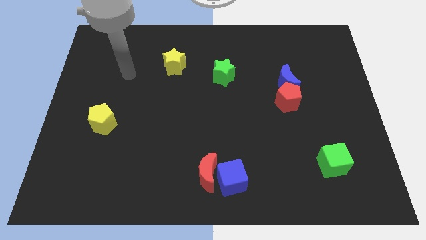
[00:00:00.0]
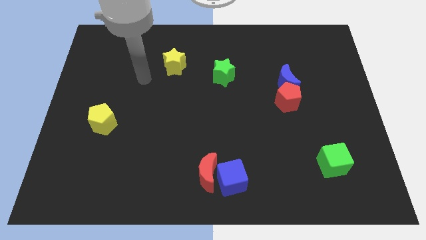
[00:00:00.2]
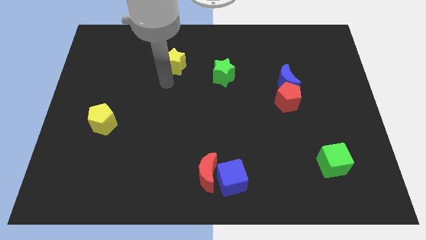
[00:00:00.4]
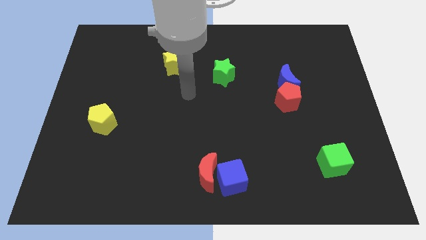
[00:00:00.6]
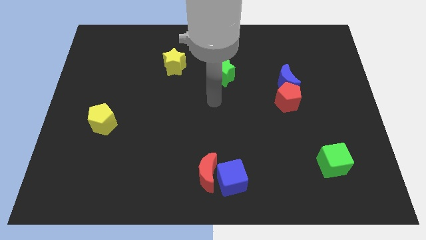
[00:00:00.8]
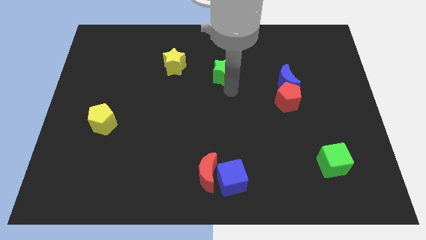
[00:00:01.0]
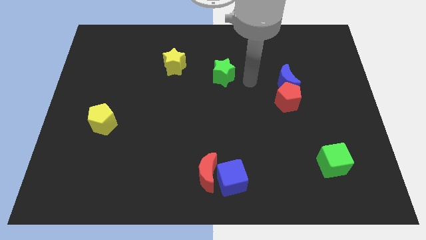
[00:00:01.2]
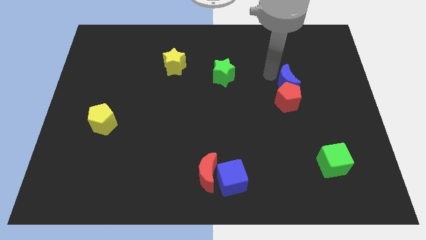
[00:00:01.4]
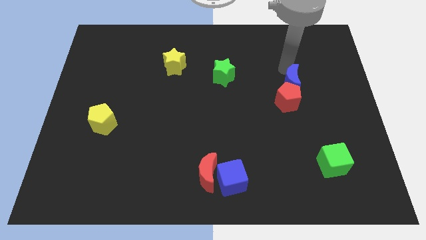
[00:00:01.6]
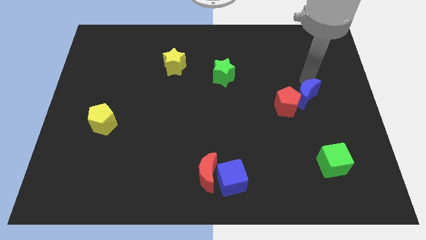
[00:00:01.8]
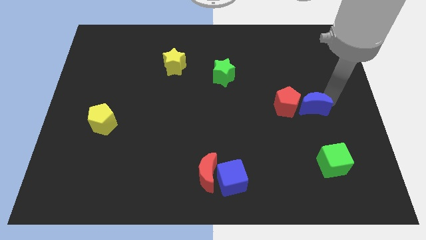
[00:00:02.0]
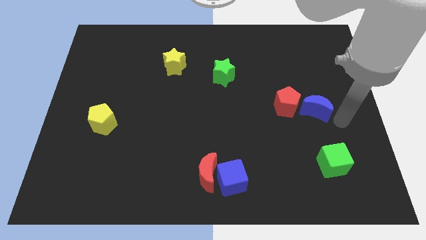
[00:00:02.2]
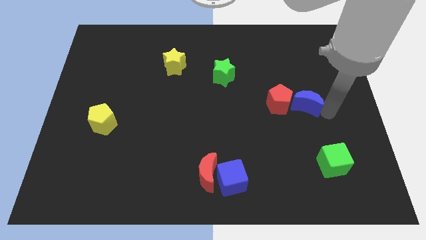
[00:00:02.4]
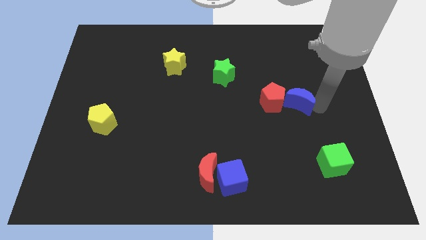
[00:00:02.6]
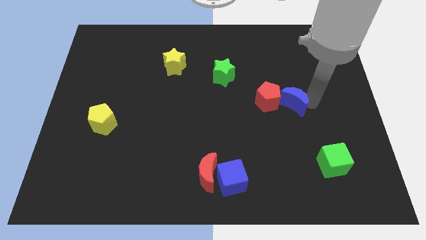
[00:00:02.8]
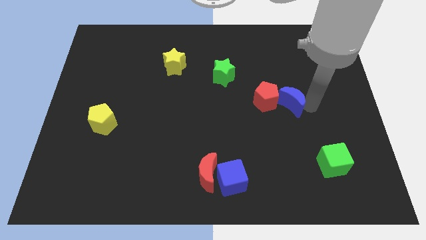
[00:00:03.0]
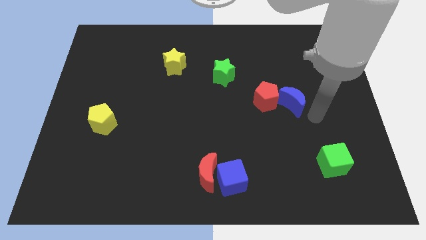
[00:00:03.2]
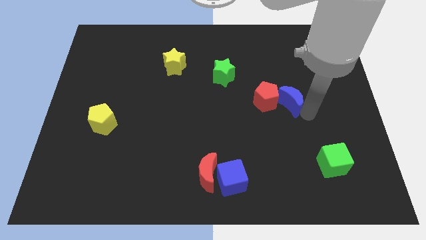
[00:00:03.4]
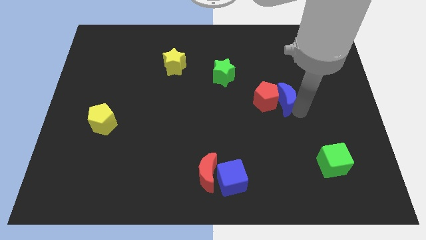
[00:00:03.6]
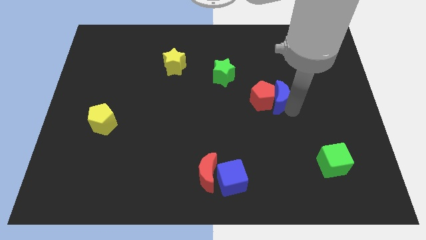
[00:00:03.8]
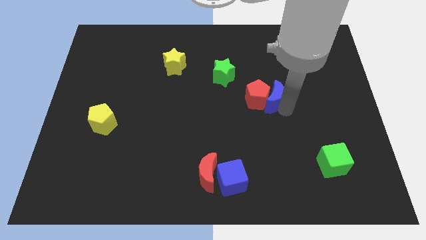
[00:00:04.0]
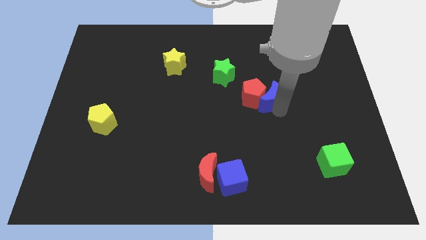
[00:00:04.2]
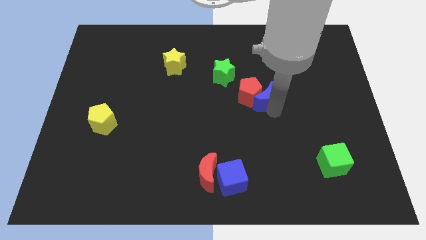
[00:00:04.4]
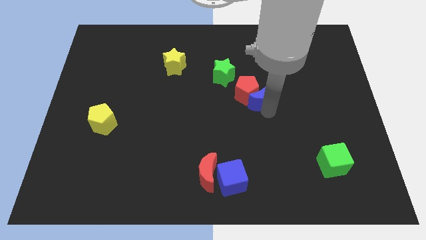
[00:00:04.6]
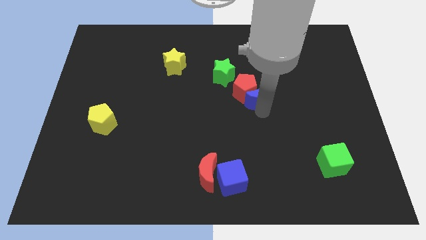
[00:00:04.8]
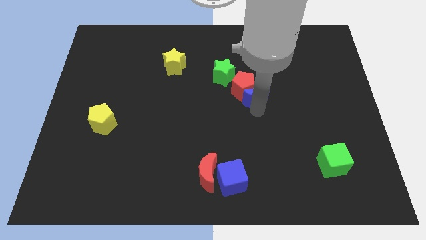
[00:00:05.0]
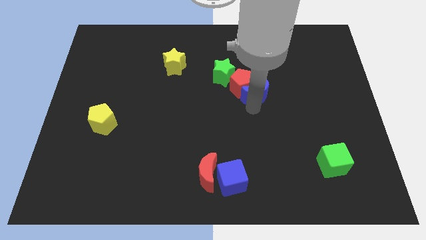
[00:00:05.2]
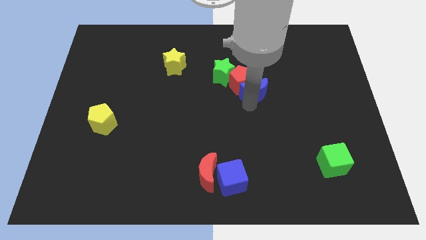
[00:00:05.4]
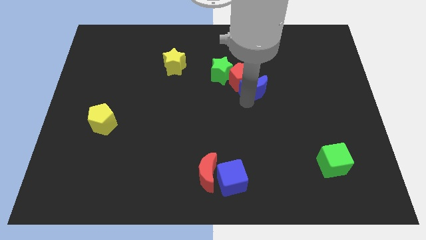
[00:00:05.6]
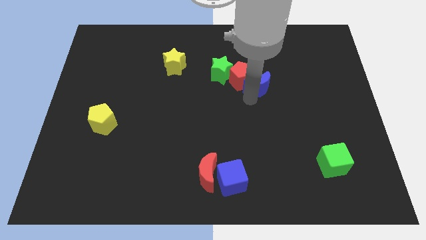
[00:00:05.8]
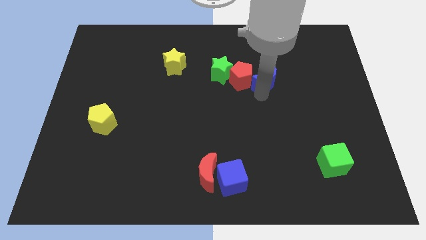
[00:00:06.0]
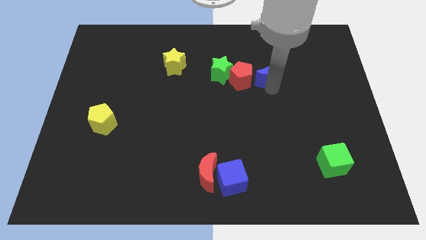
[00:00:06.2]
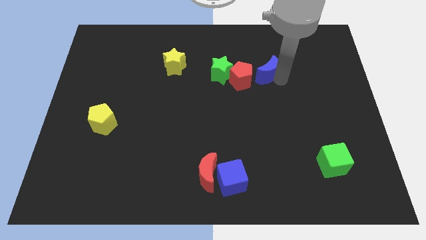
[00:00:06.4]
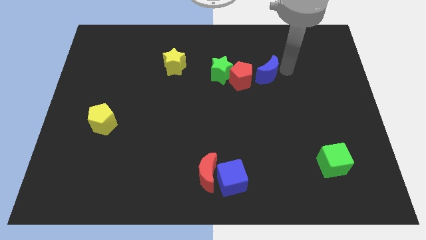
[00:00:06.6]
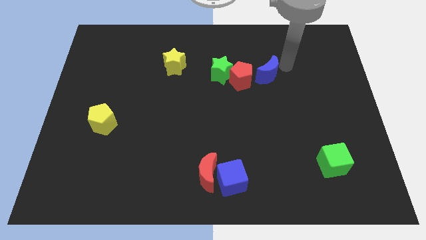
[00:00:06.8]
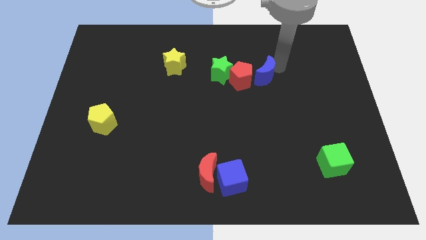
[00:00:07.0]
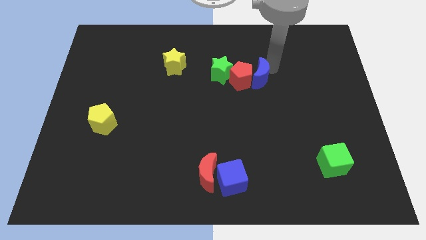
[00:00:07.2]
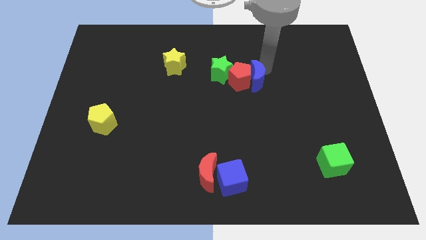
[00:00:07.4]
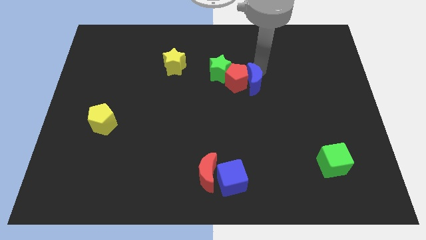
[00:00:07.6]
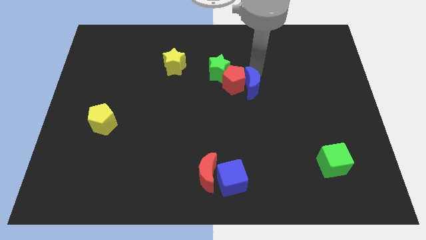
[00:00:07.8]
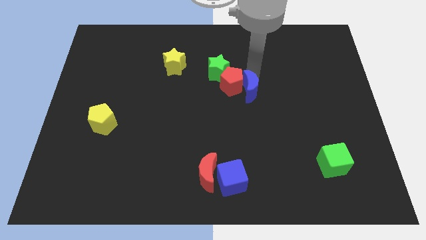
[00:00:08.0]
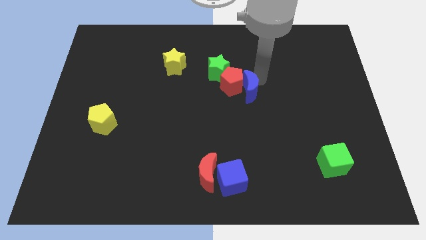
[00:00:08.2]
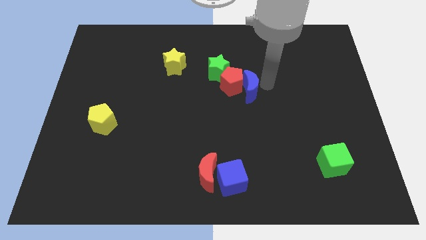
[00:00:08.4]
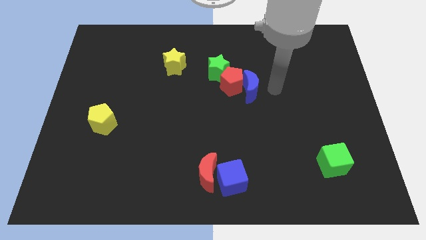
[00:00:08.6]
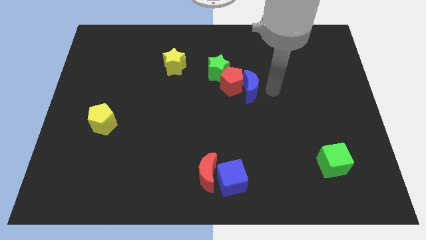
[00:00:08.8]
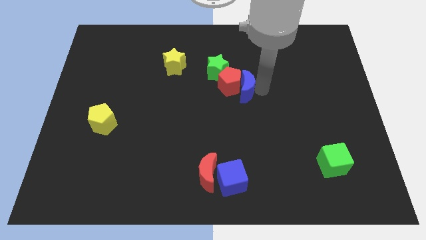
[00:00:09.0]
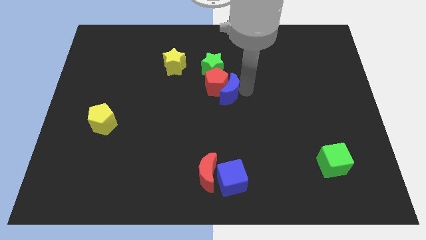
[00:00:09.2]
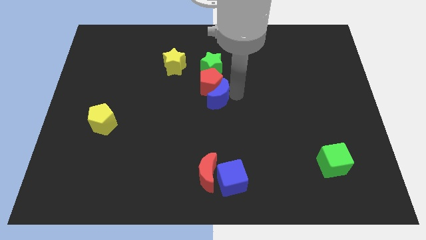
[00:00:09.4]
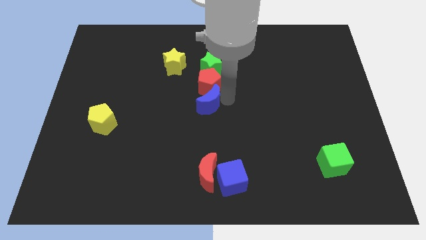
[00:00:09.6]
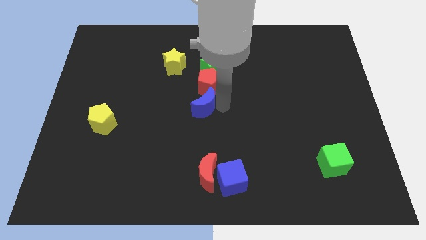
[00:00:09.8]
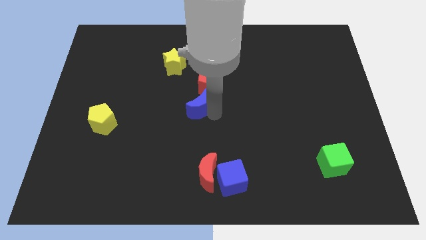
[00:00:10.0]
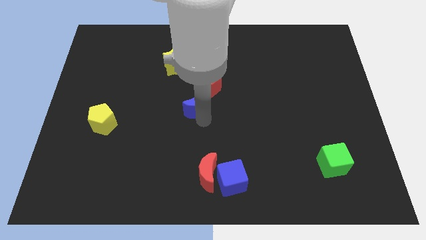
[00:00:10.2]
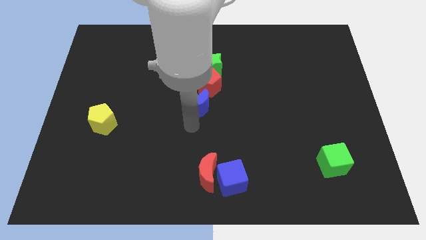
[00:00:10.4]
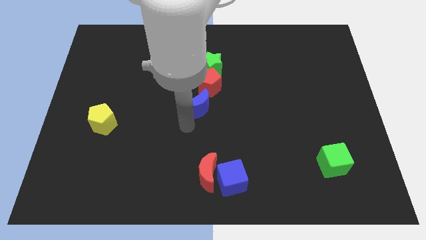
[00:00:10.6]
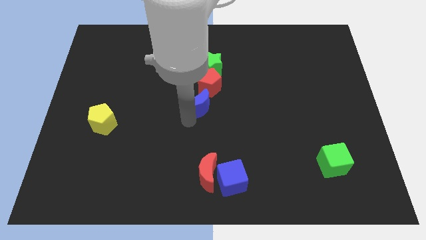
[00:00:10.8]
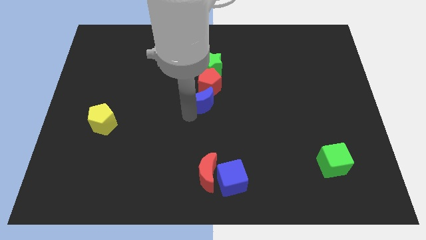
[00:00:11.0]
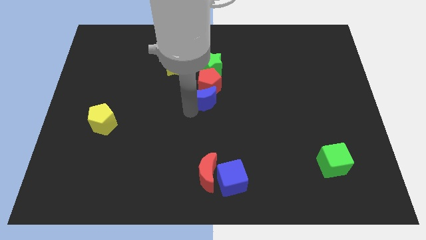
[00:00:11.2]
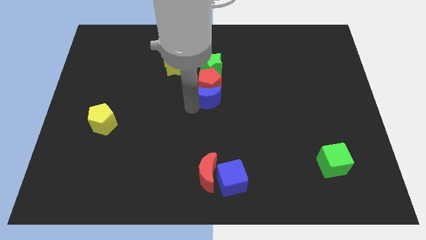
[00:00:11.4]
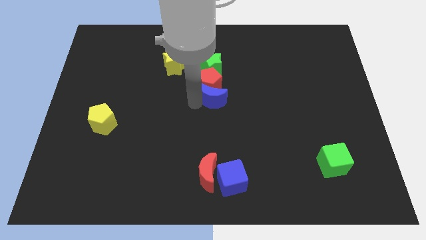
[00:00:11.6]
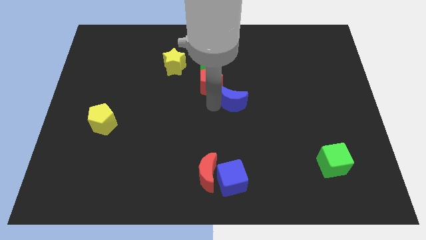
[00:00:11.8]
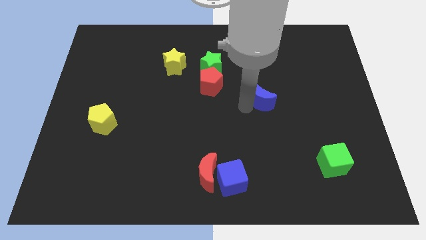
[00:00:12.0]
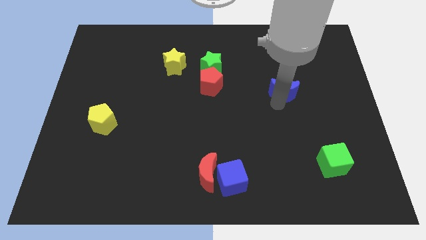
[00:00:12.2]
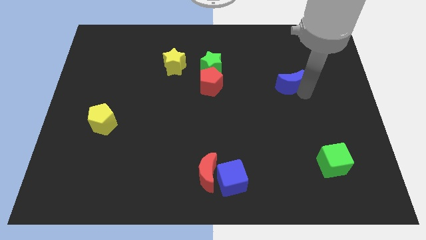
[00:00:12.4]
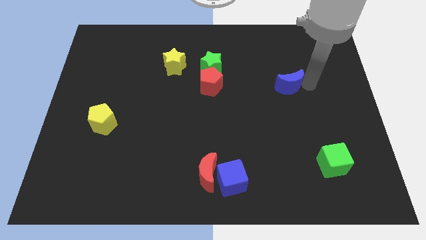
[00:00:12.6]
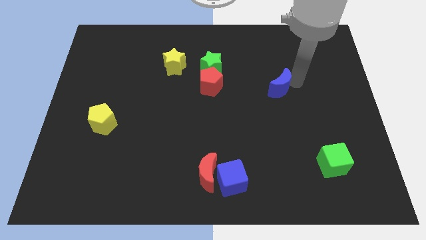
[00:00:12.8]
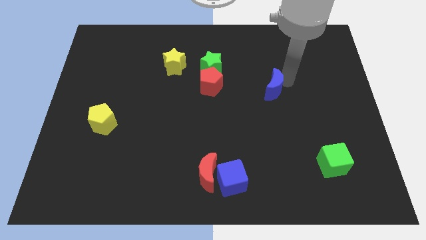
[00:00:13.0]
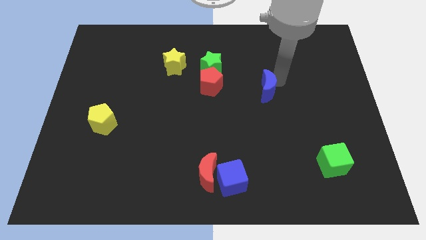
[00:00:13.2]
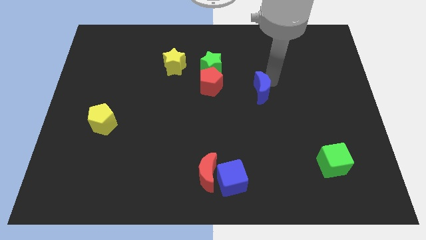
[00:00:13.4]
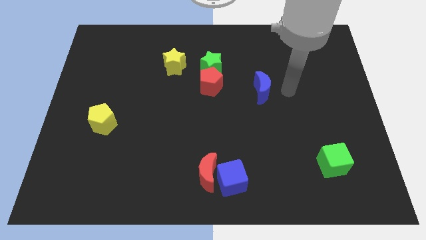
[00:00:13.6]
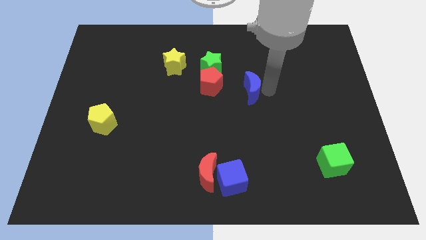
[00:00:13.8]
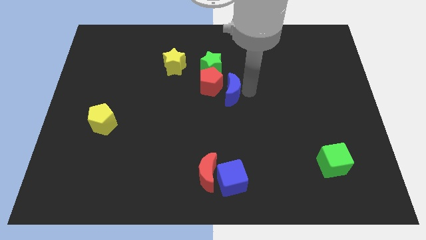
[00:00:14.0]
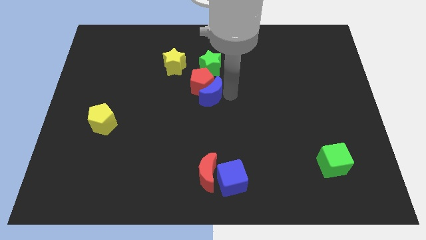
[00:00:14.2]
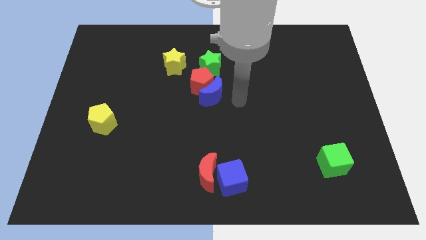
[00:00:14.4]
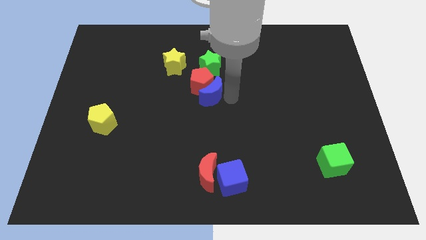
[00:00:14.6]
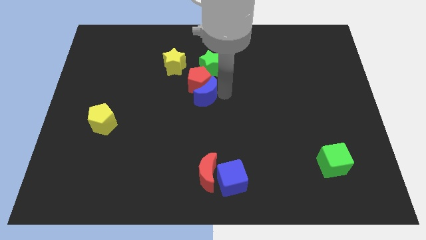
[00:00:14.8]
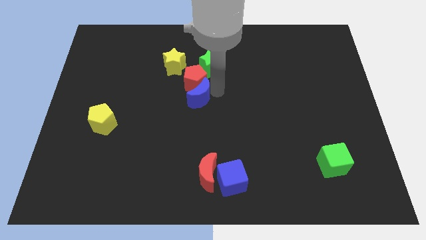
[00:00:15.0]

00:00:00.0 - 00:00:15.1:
move the blue moon left

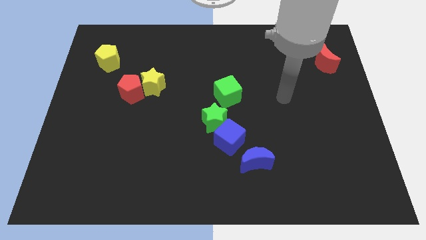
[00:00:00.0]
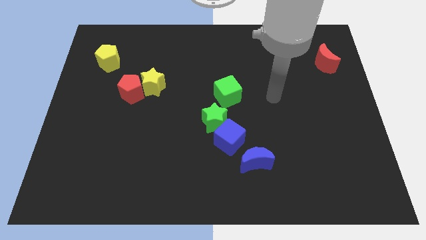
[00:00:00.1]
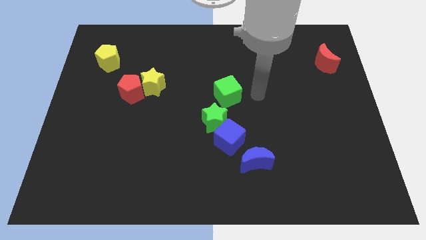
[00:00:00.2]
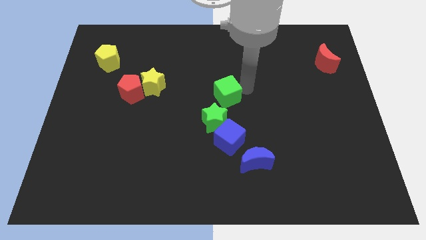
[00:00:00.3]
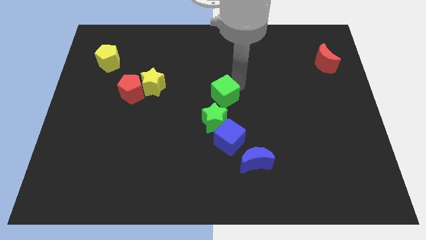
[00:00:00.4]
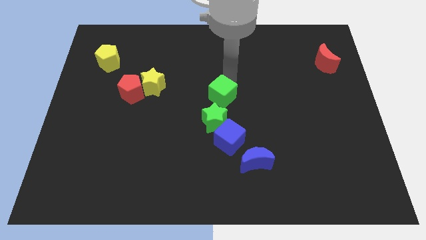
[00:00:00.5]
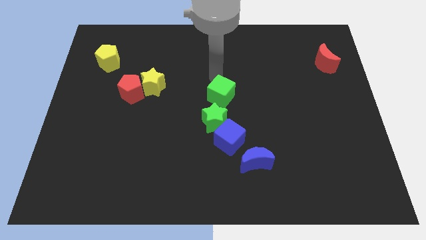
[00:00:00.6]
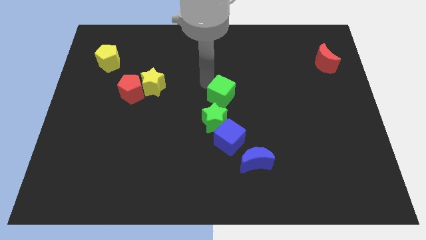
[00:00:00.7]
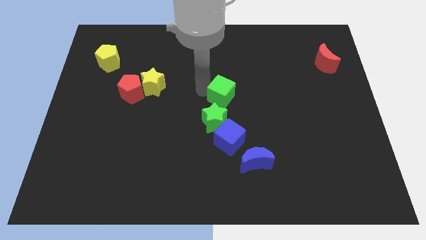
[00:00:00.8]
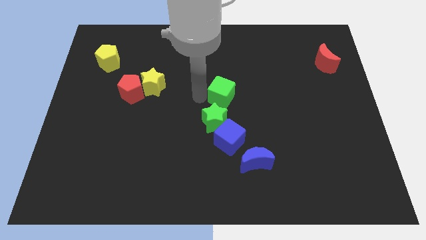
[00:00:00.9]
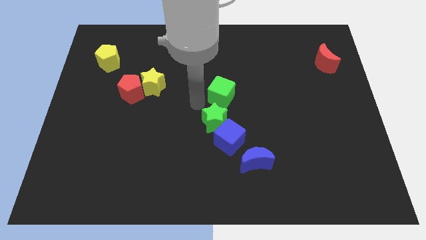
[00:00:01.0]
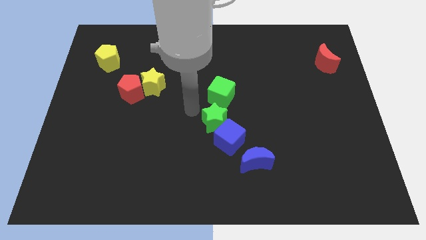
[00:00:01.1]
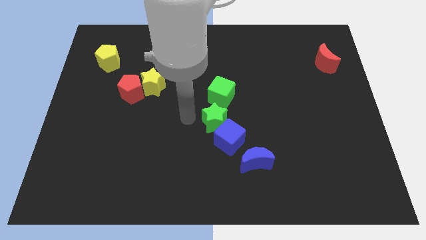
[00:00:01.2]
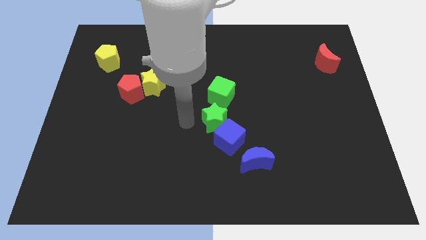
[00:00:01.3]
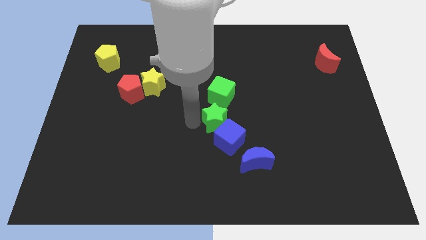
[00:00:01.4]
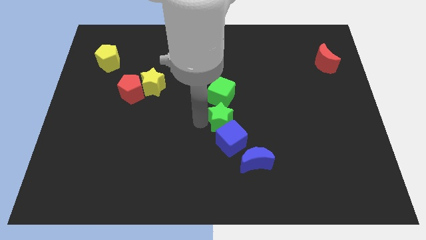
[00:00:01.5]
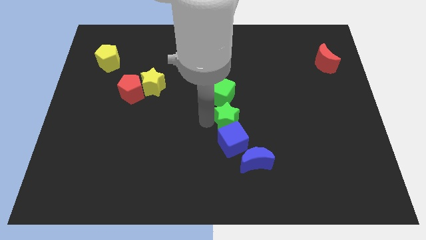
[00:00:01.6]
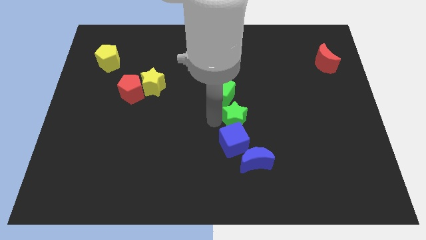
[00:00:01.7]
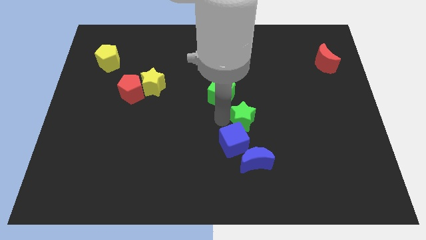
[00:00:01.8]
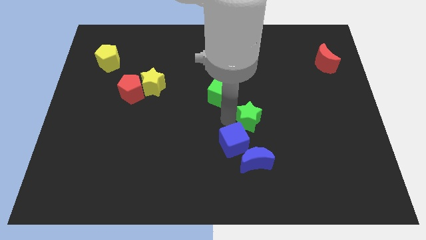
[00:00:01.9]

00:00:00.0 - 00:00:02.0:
push the green star right a little bit
